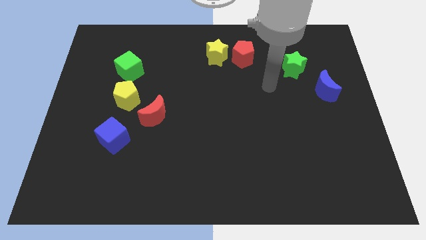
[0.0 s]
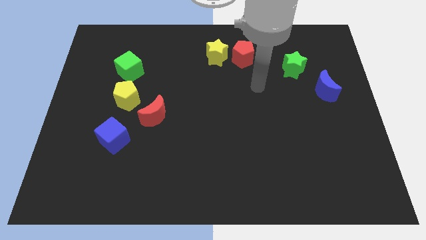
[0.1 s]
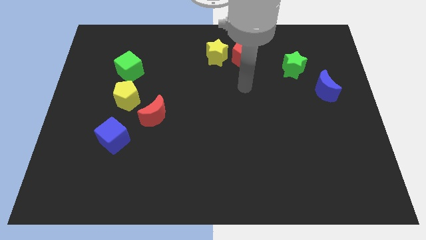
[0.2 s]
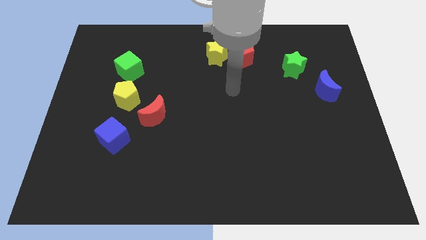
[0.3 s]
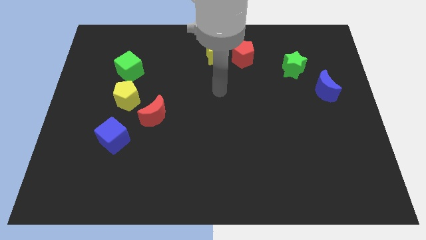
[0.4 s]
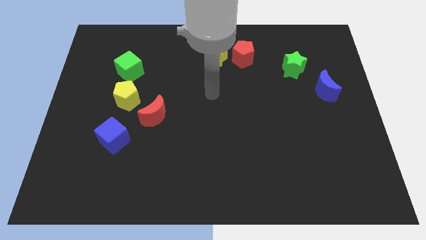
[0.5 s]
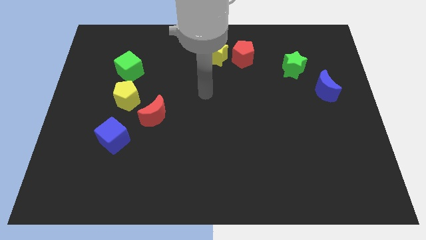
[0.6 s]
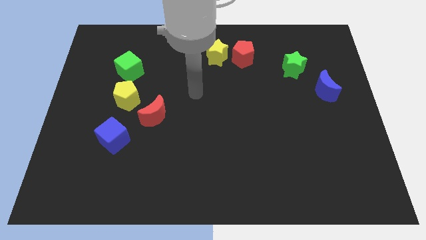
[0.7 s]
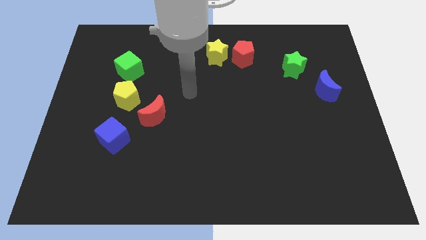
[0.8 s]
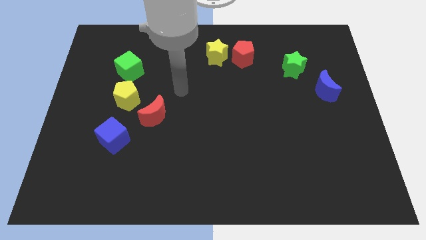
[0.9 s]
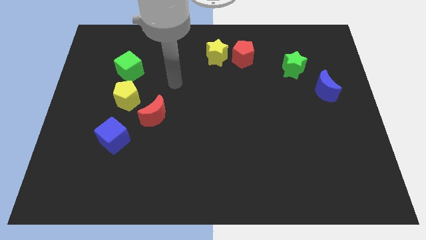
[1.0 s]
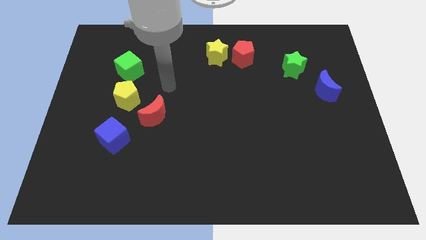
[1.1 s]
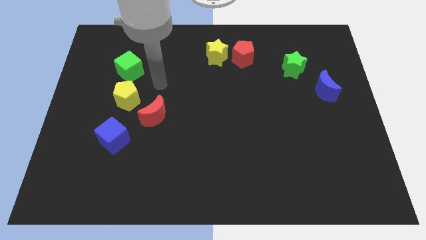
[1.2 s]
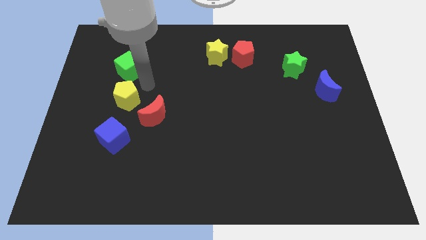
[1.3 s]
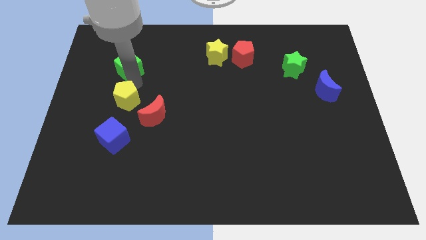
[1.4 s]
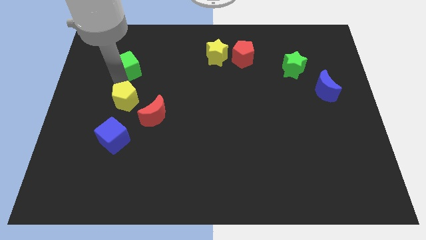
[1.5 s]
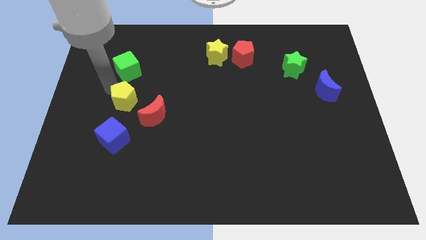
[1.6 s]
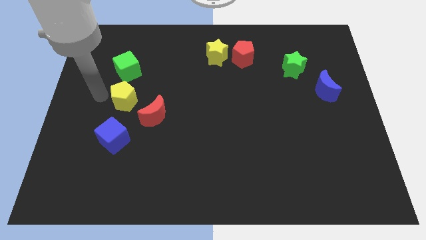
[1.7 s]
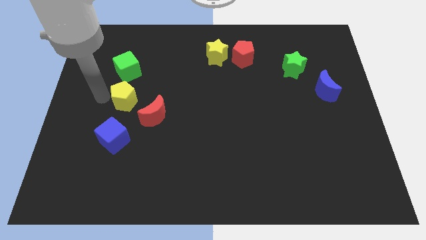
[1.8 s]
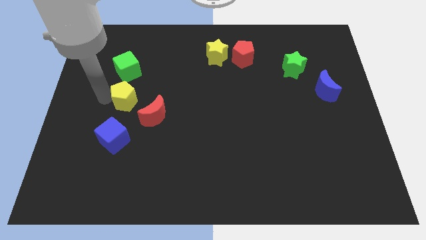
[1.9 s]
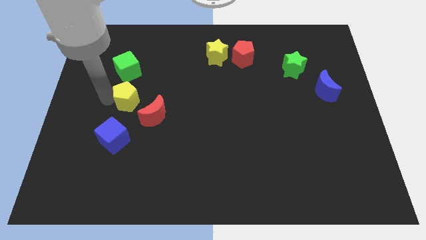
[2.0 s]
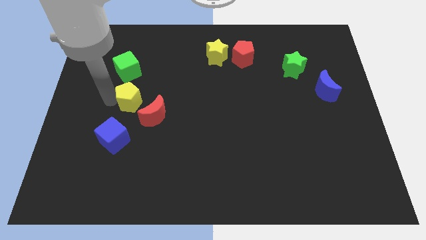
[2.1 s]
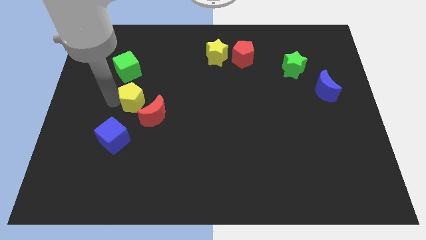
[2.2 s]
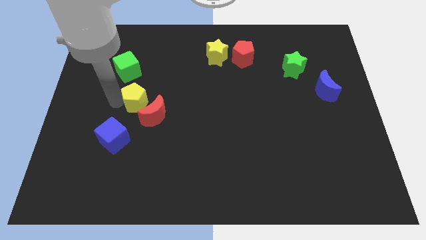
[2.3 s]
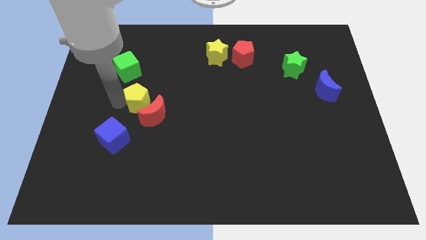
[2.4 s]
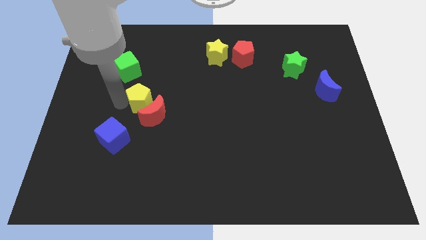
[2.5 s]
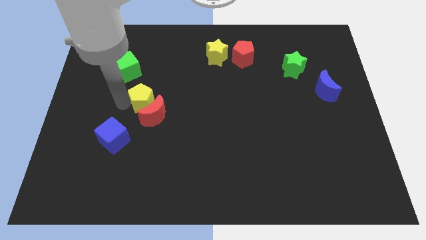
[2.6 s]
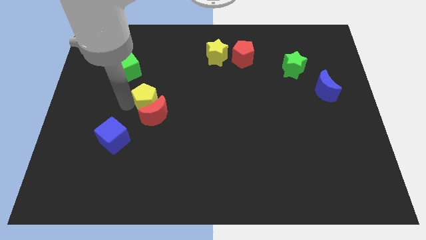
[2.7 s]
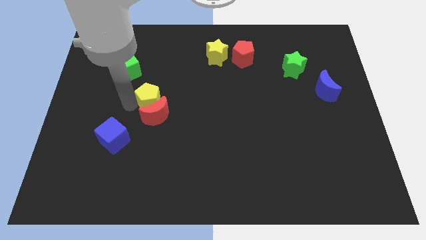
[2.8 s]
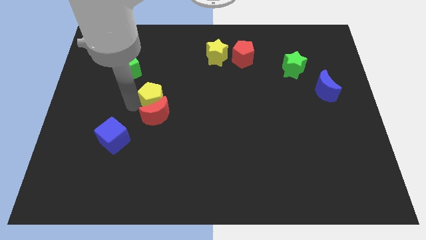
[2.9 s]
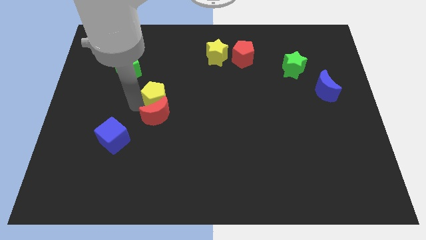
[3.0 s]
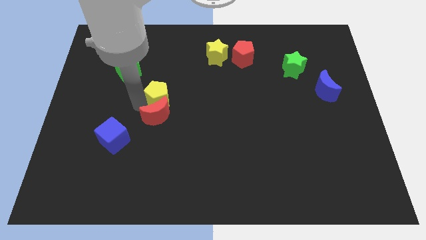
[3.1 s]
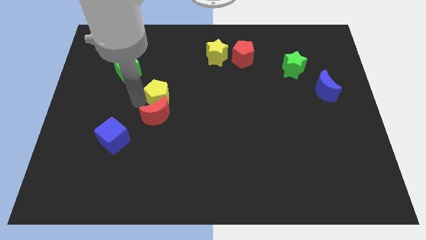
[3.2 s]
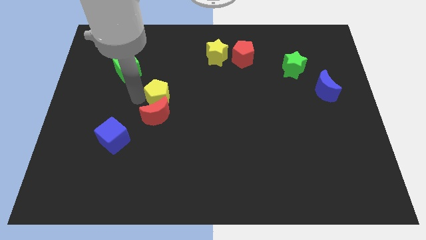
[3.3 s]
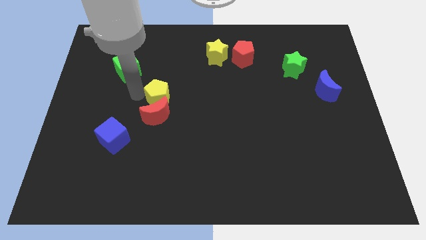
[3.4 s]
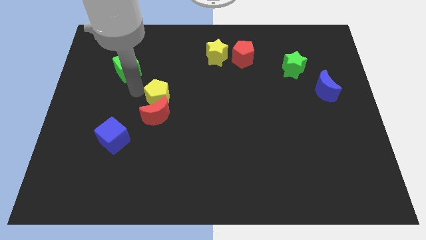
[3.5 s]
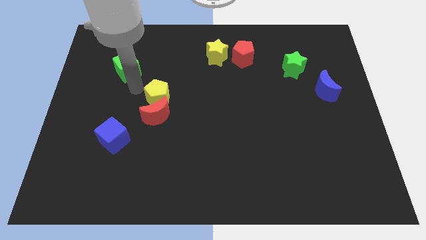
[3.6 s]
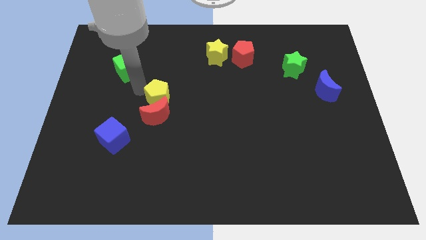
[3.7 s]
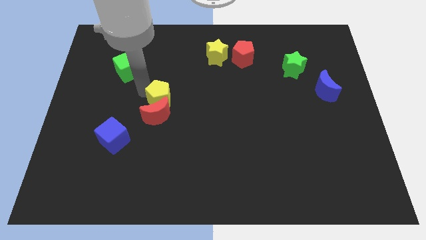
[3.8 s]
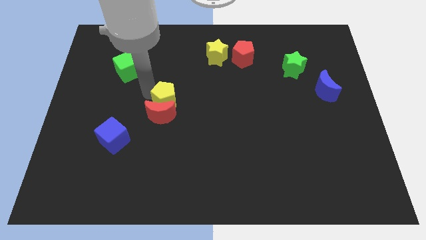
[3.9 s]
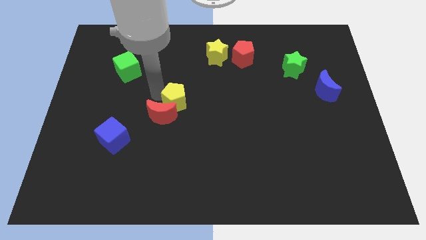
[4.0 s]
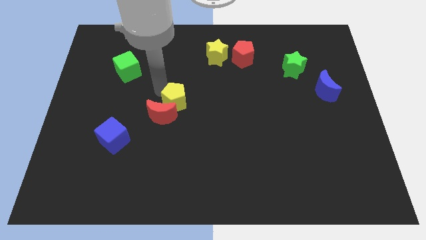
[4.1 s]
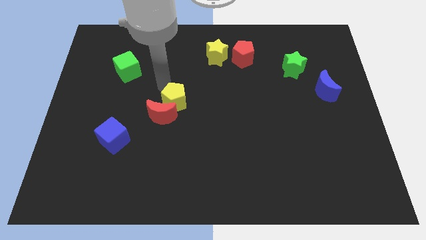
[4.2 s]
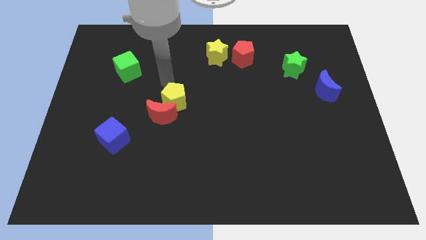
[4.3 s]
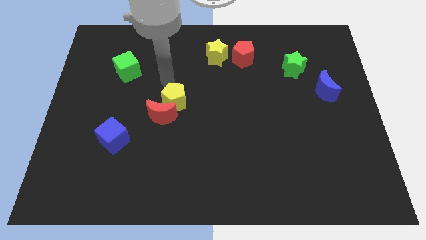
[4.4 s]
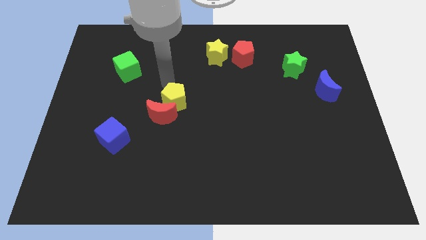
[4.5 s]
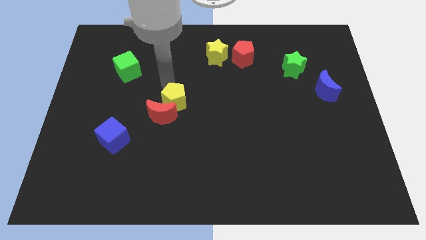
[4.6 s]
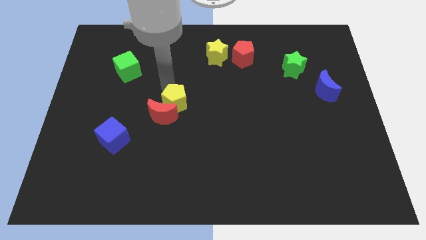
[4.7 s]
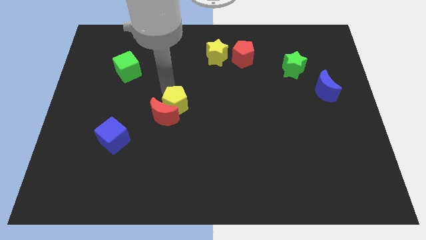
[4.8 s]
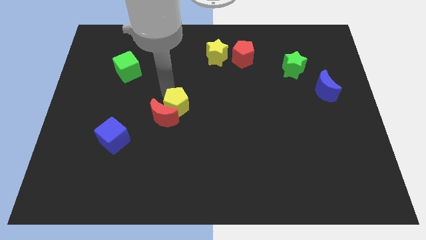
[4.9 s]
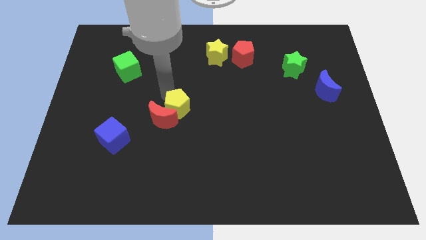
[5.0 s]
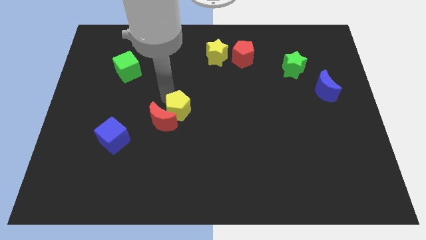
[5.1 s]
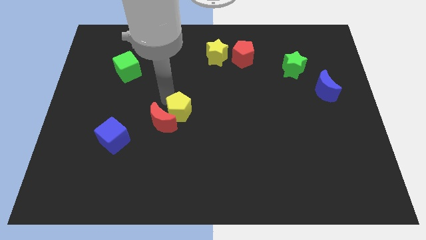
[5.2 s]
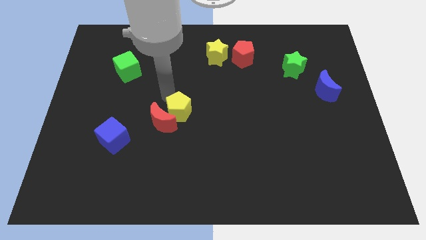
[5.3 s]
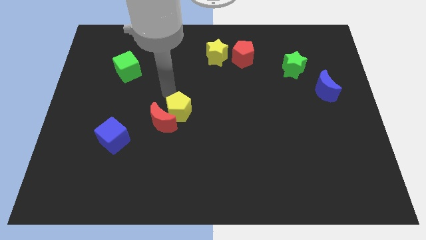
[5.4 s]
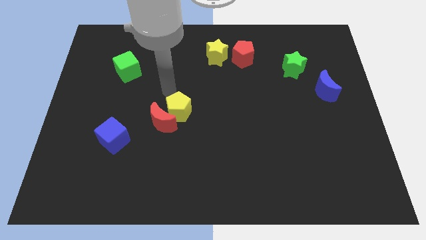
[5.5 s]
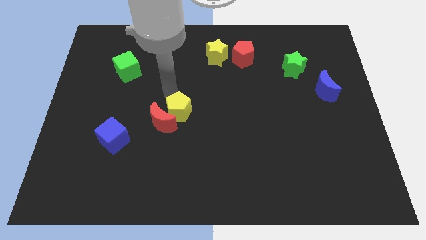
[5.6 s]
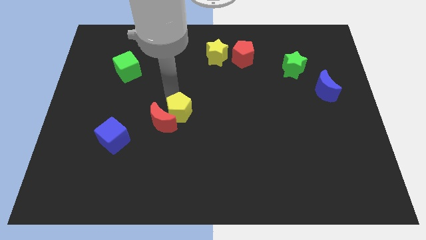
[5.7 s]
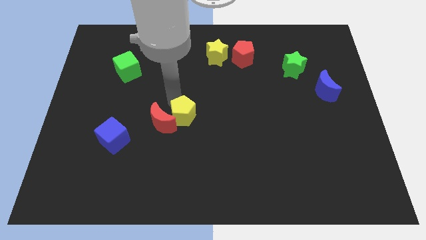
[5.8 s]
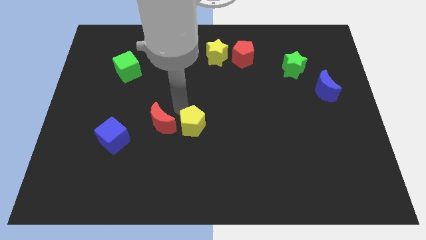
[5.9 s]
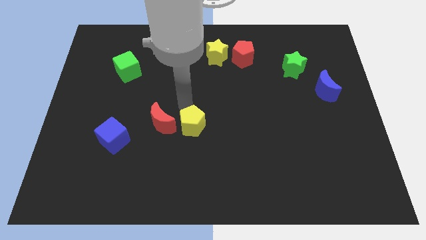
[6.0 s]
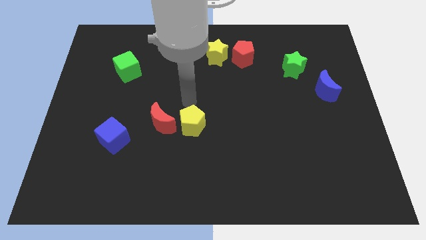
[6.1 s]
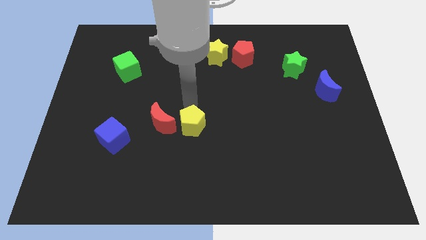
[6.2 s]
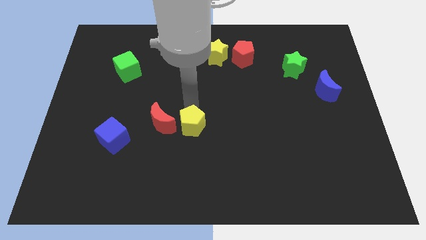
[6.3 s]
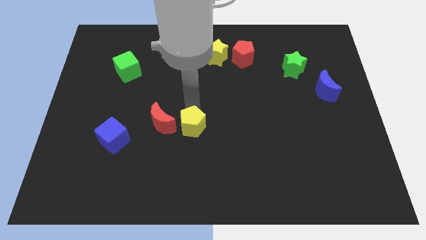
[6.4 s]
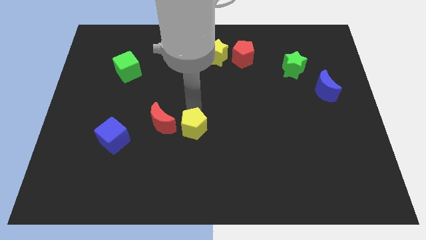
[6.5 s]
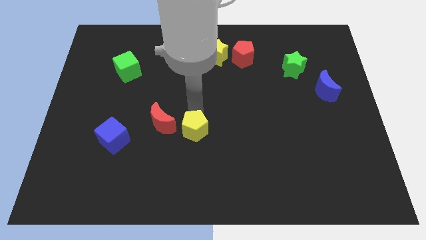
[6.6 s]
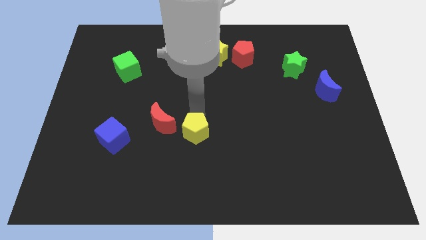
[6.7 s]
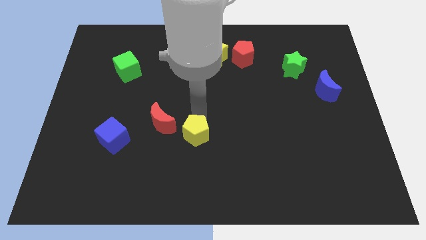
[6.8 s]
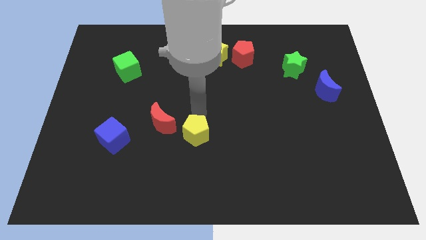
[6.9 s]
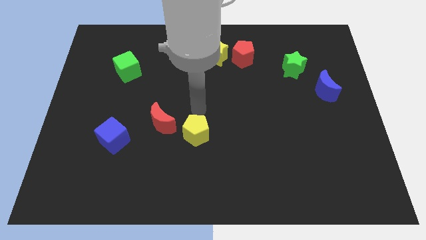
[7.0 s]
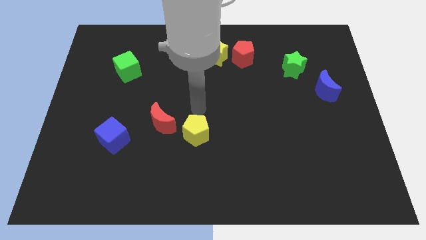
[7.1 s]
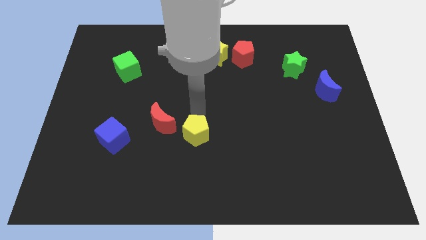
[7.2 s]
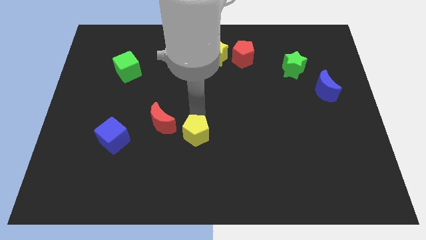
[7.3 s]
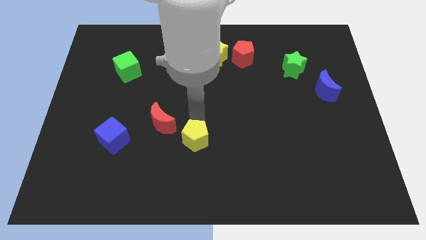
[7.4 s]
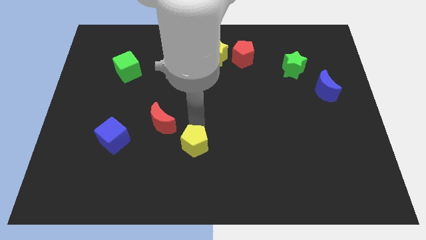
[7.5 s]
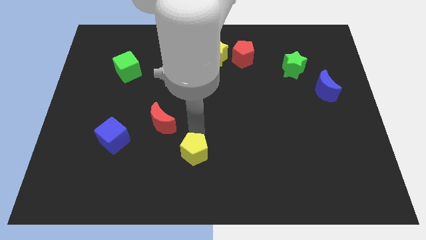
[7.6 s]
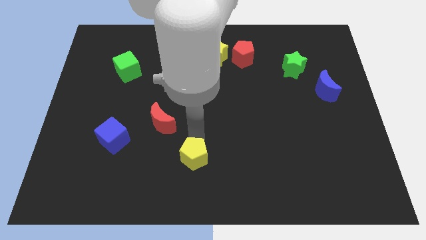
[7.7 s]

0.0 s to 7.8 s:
move the yellow pentagon to the bottom side
